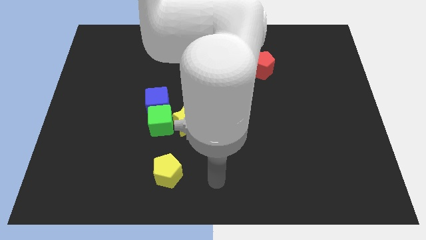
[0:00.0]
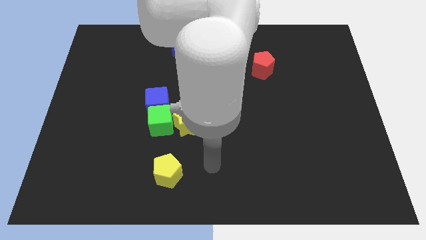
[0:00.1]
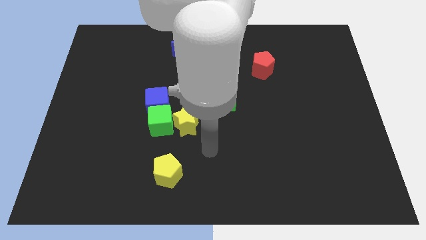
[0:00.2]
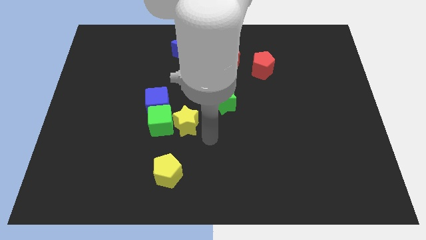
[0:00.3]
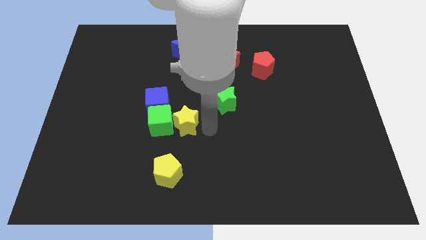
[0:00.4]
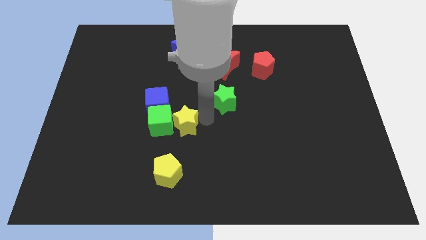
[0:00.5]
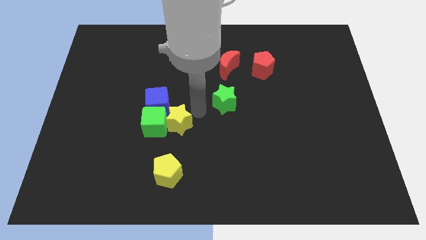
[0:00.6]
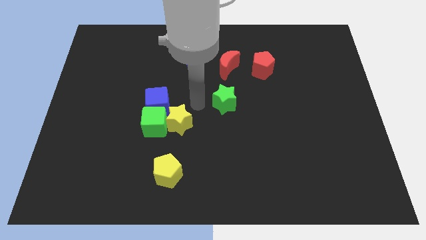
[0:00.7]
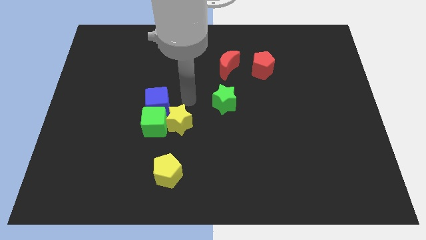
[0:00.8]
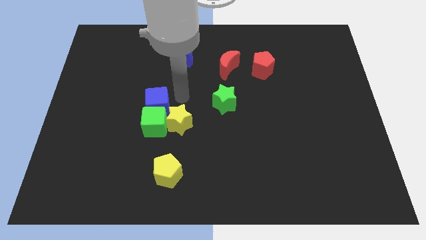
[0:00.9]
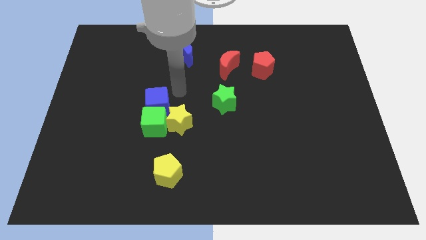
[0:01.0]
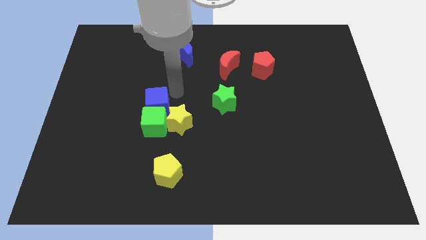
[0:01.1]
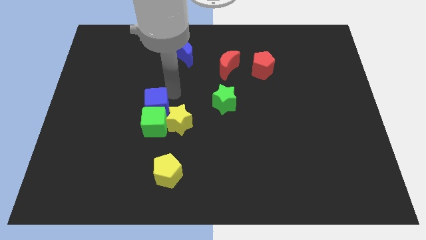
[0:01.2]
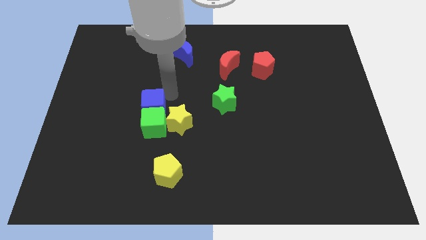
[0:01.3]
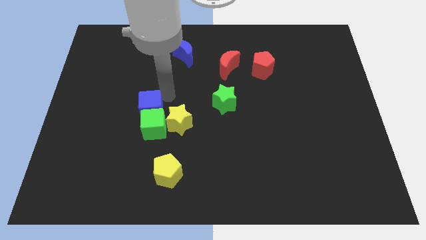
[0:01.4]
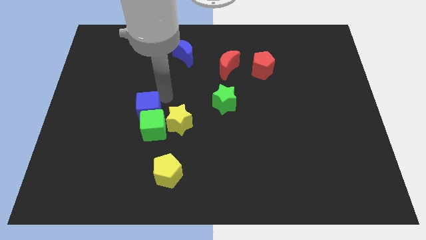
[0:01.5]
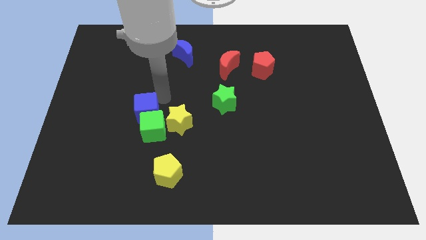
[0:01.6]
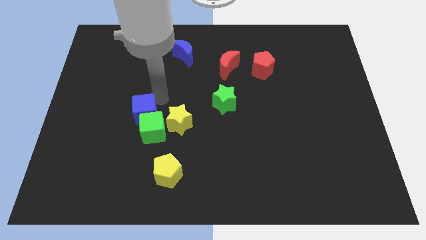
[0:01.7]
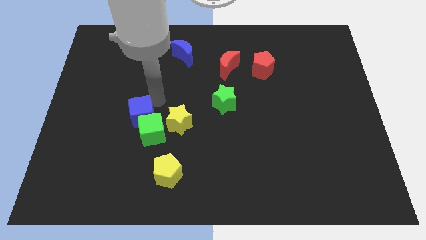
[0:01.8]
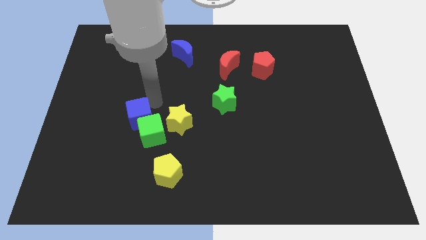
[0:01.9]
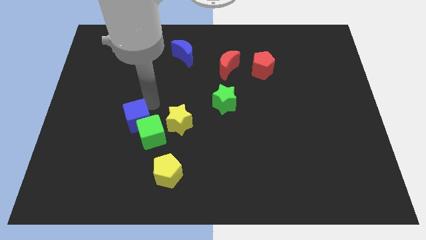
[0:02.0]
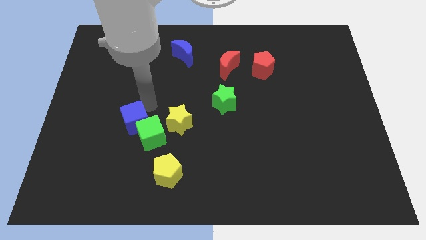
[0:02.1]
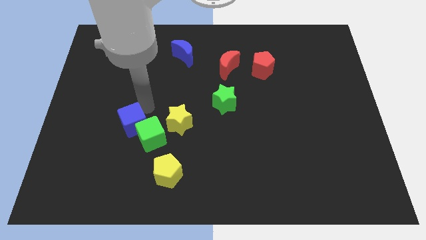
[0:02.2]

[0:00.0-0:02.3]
slightly move the blue cube diagonally downwards and left

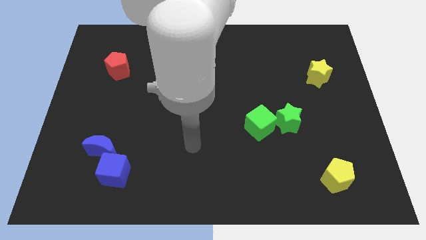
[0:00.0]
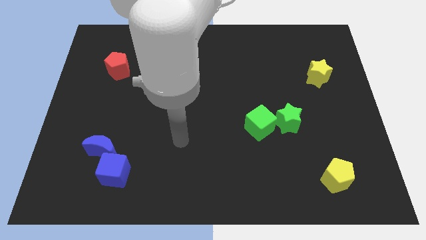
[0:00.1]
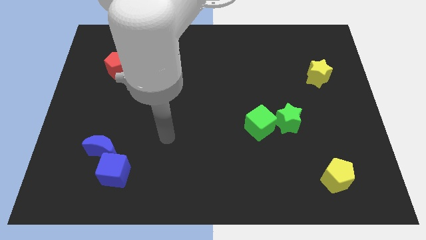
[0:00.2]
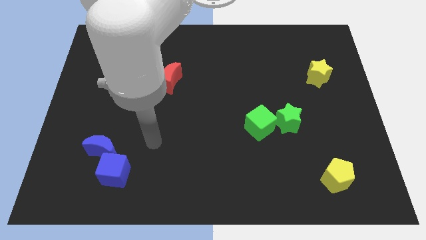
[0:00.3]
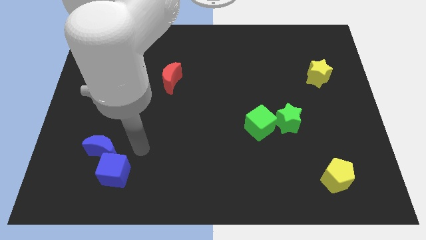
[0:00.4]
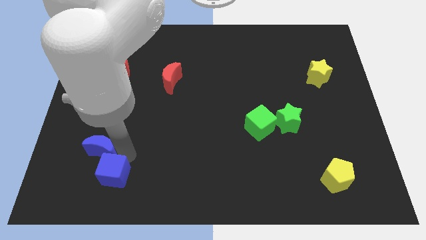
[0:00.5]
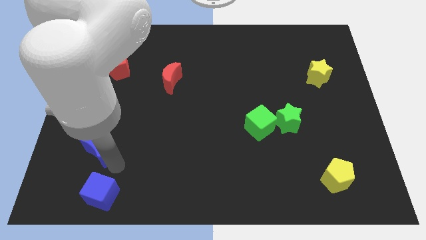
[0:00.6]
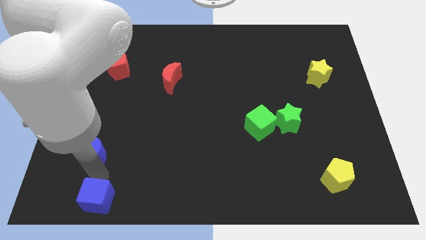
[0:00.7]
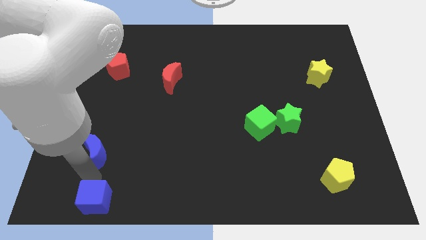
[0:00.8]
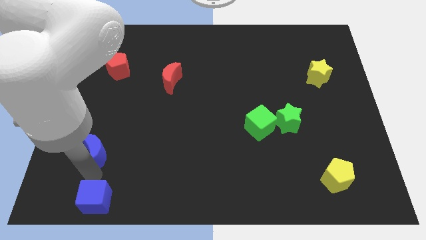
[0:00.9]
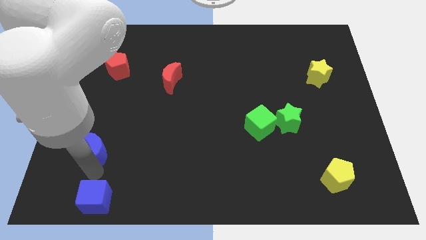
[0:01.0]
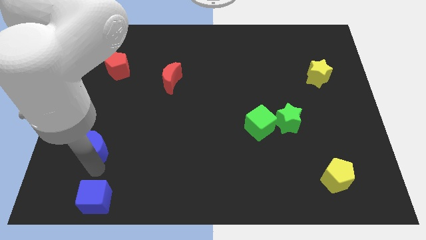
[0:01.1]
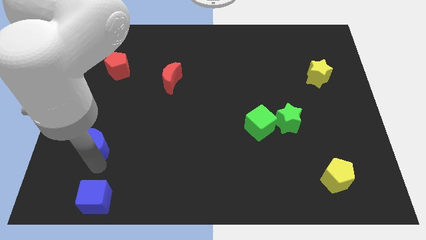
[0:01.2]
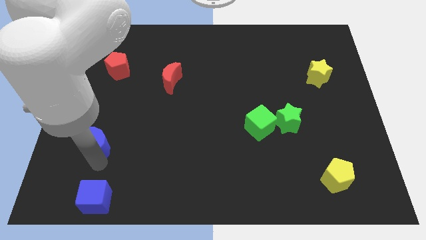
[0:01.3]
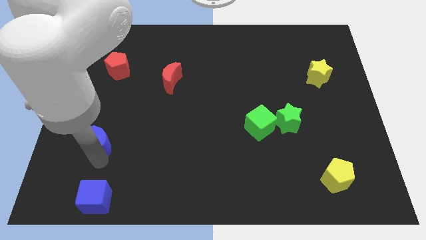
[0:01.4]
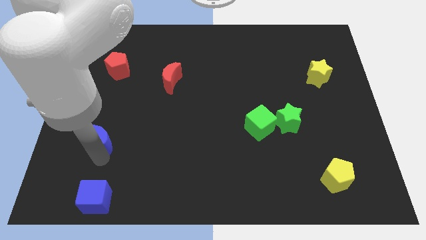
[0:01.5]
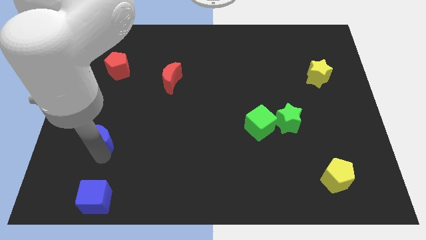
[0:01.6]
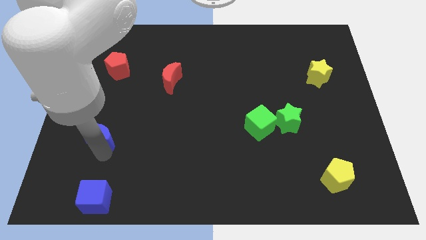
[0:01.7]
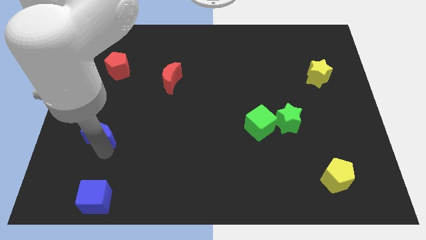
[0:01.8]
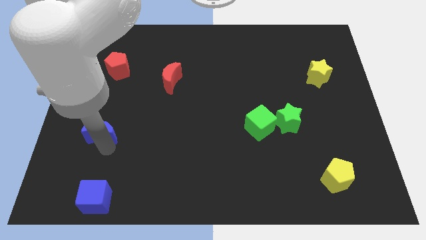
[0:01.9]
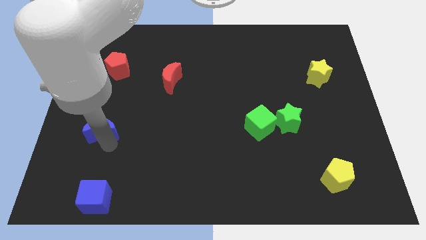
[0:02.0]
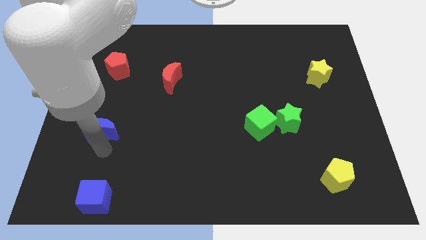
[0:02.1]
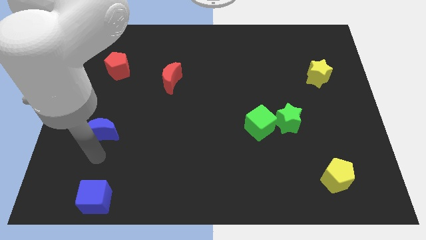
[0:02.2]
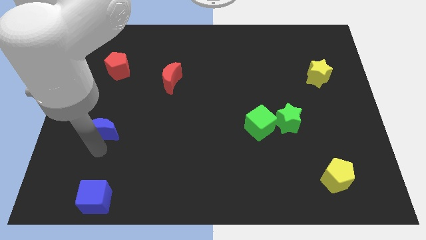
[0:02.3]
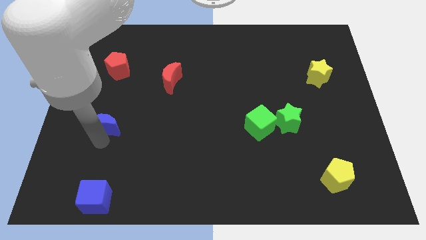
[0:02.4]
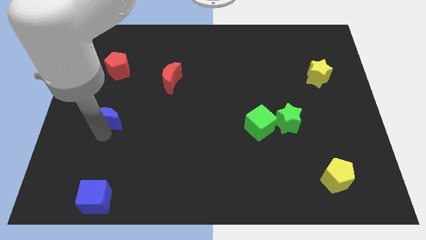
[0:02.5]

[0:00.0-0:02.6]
move the blue moon somewhat upwards

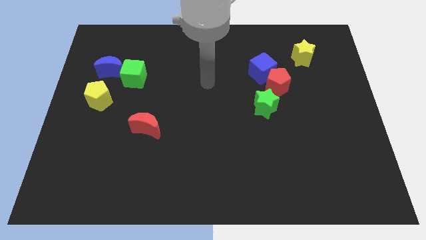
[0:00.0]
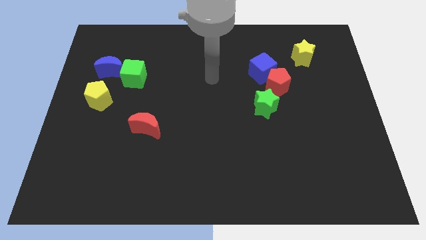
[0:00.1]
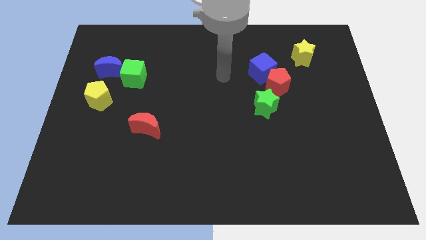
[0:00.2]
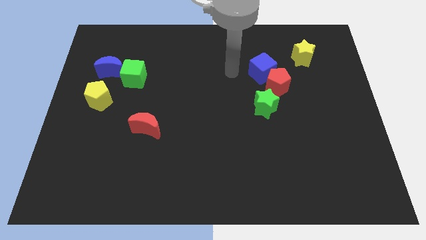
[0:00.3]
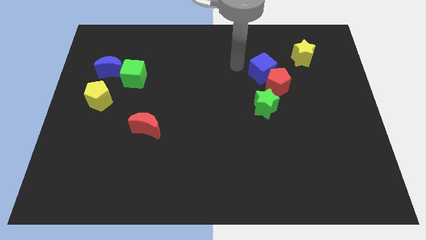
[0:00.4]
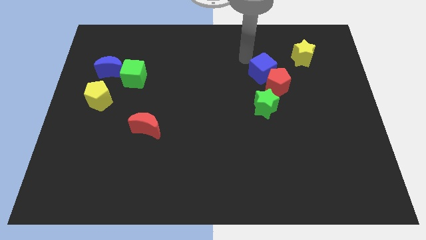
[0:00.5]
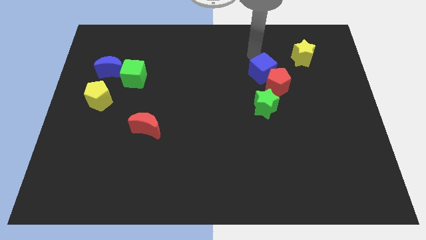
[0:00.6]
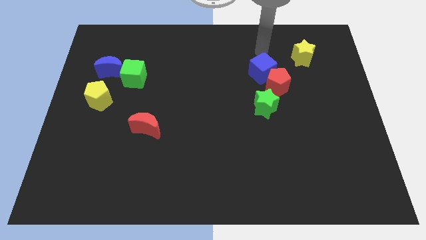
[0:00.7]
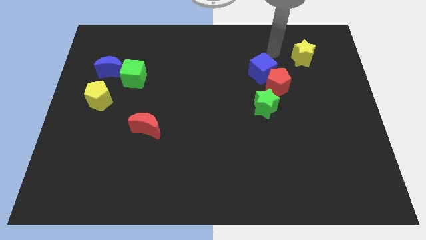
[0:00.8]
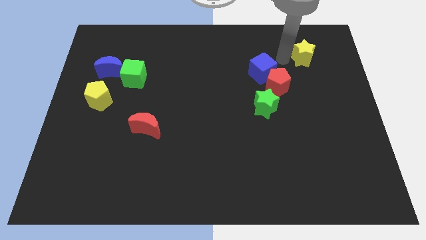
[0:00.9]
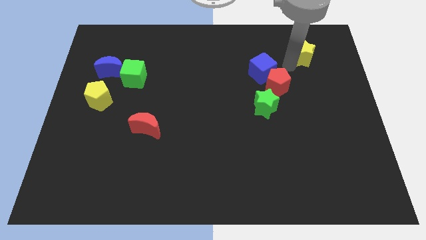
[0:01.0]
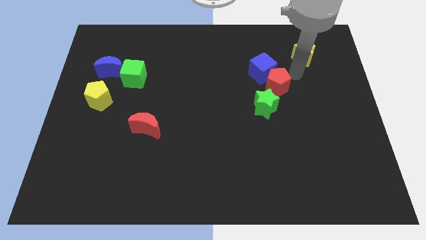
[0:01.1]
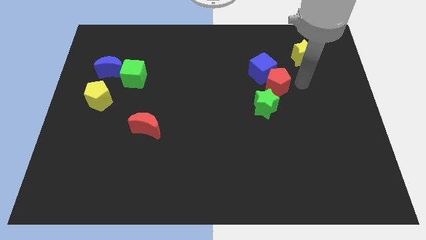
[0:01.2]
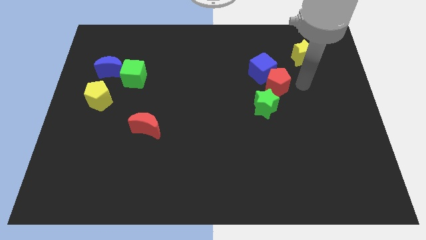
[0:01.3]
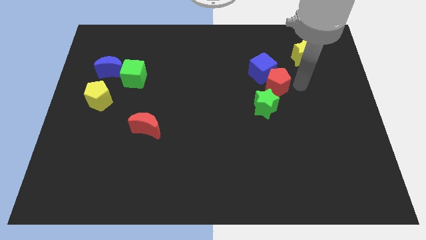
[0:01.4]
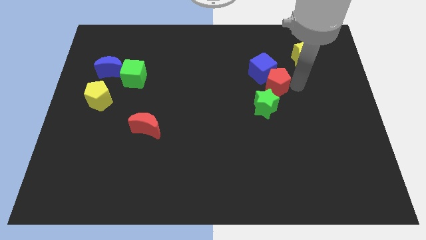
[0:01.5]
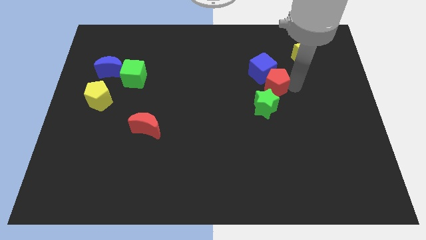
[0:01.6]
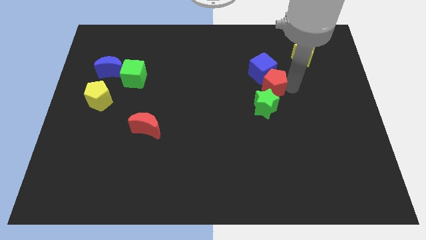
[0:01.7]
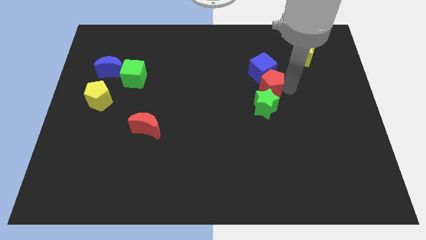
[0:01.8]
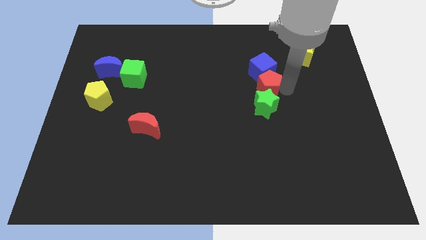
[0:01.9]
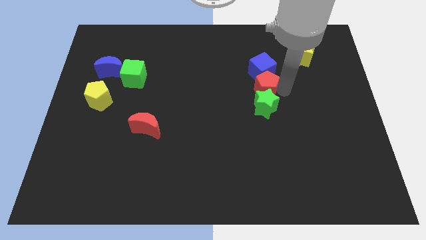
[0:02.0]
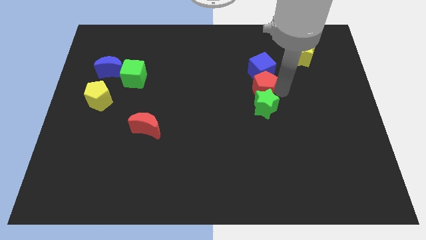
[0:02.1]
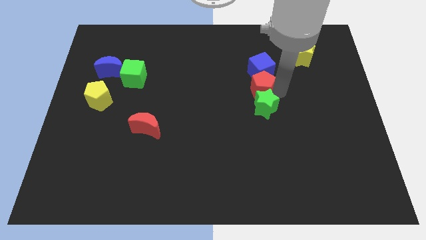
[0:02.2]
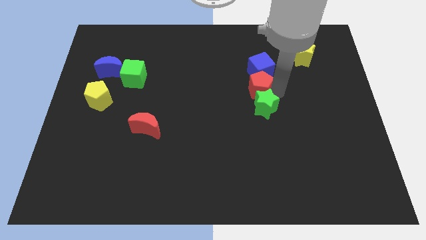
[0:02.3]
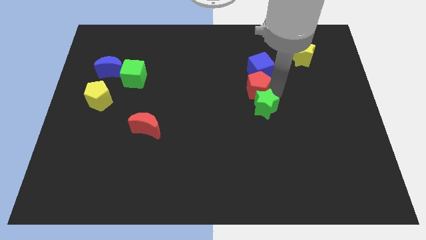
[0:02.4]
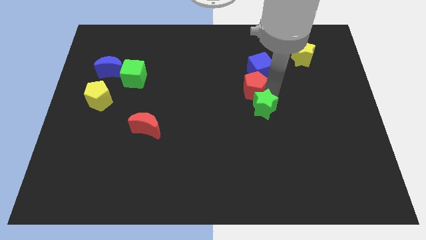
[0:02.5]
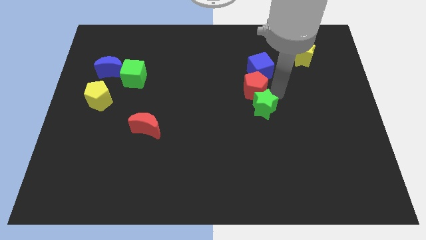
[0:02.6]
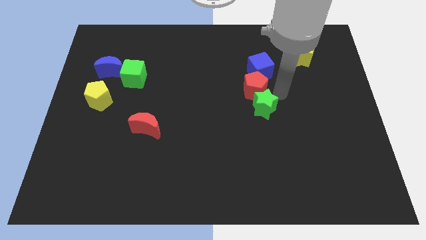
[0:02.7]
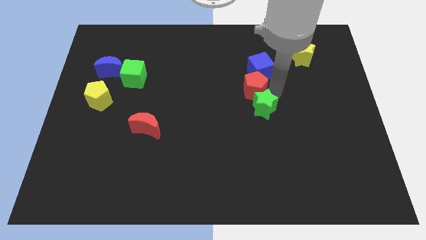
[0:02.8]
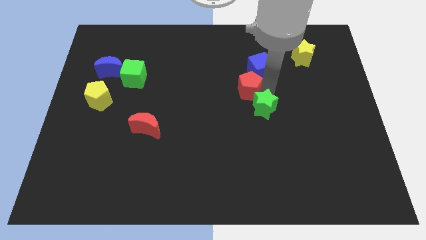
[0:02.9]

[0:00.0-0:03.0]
push the red pentagon to the left somewhat
